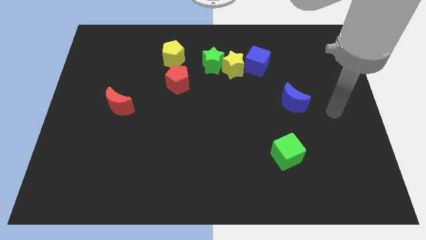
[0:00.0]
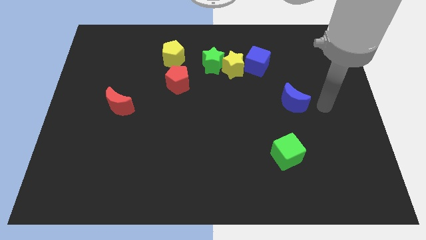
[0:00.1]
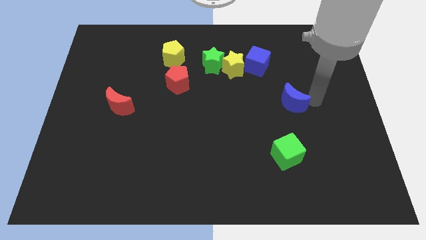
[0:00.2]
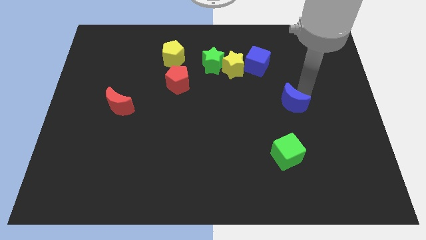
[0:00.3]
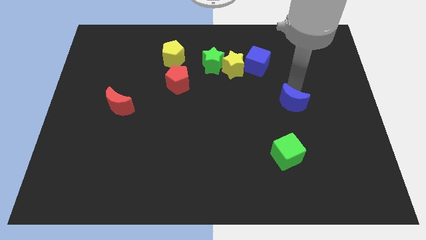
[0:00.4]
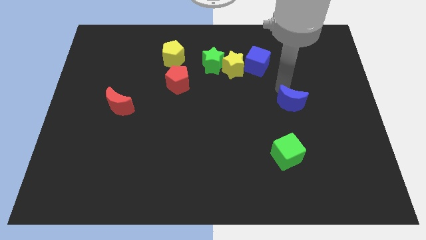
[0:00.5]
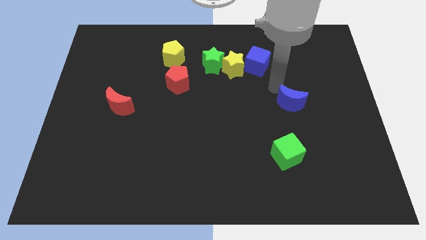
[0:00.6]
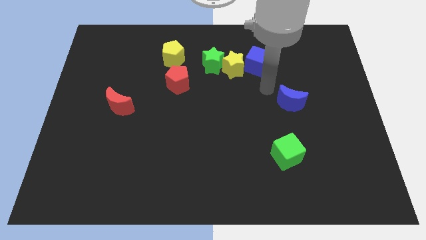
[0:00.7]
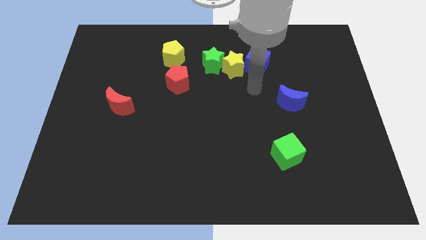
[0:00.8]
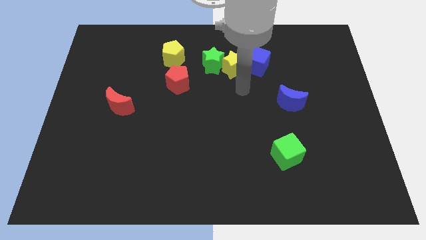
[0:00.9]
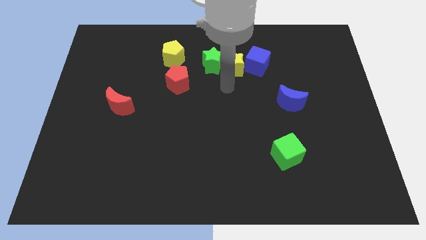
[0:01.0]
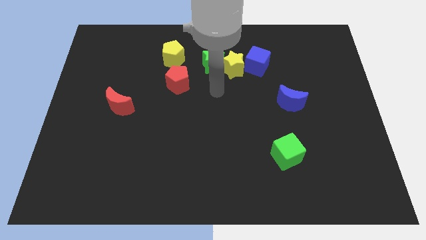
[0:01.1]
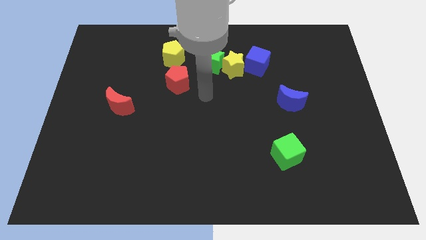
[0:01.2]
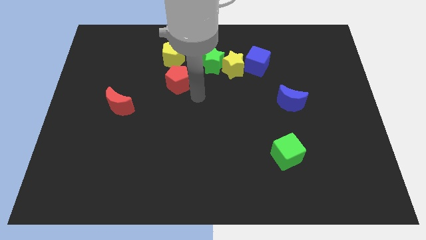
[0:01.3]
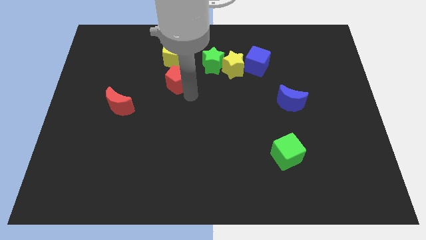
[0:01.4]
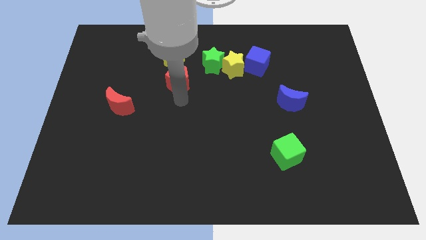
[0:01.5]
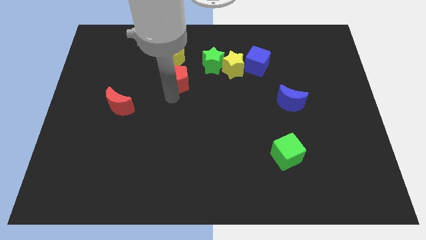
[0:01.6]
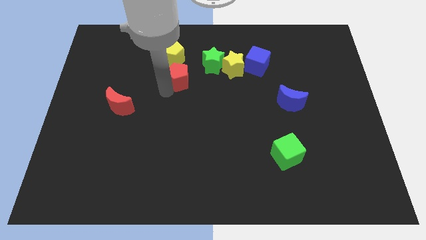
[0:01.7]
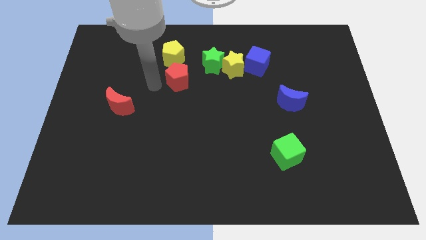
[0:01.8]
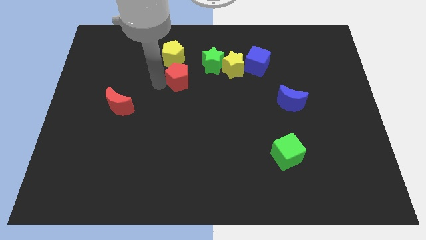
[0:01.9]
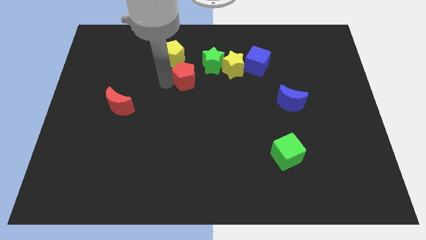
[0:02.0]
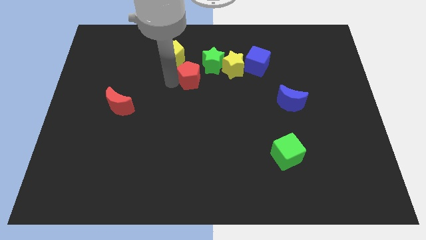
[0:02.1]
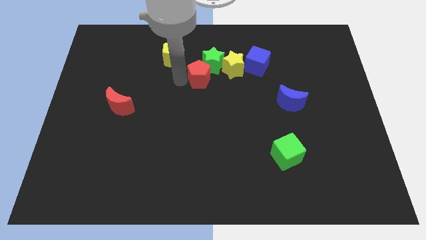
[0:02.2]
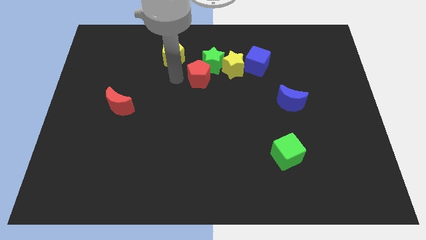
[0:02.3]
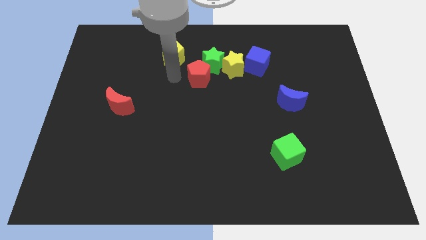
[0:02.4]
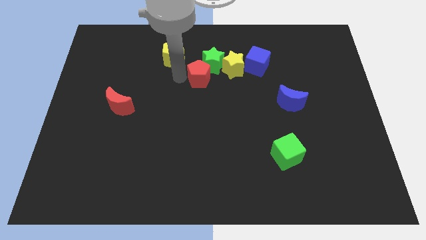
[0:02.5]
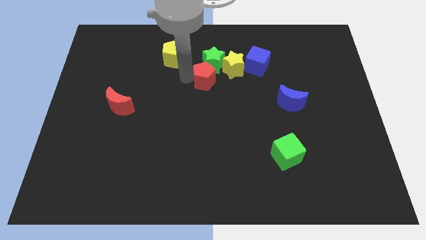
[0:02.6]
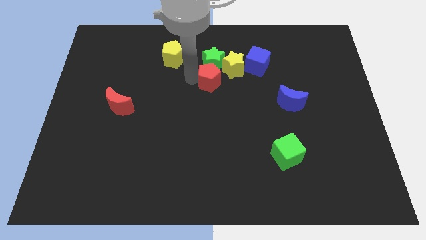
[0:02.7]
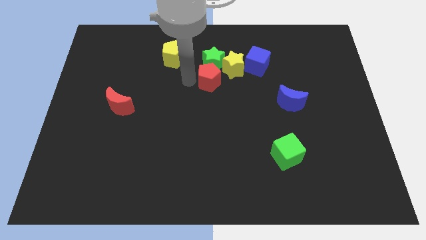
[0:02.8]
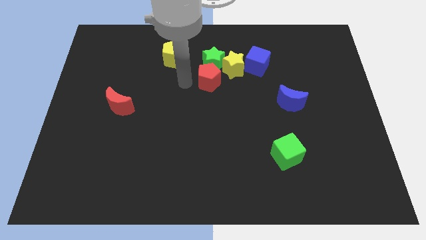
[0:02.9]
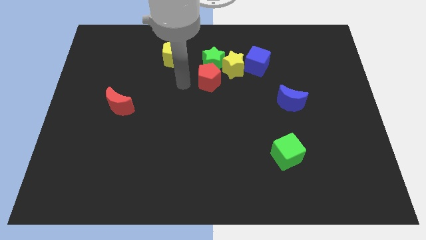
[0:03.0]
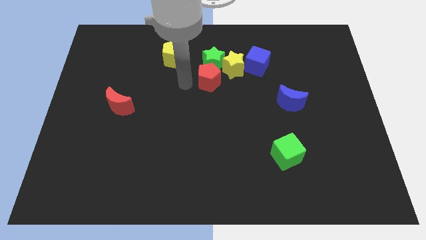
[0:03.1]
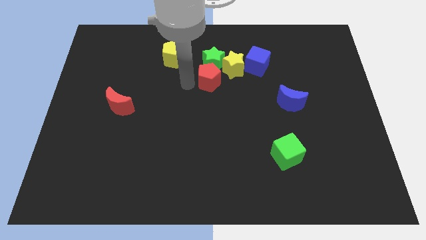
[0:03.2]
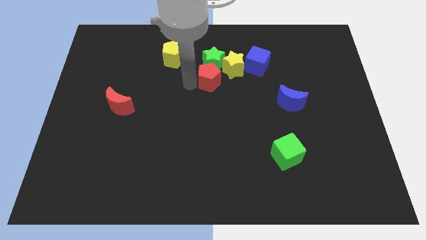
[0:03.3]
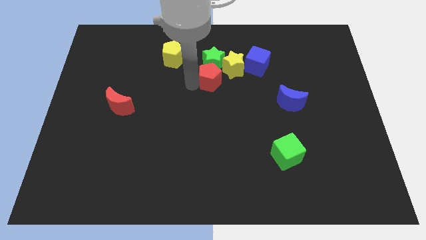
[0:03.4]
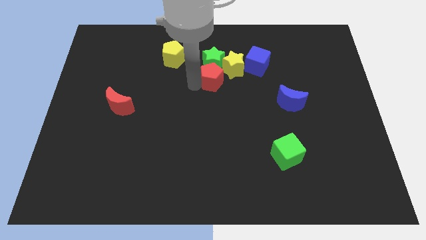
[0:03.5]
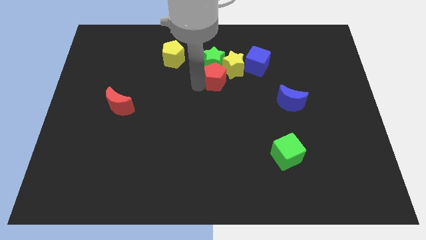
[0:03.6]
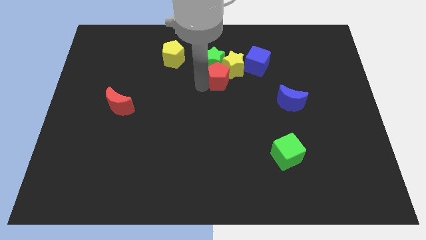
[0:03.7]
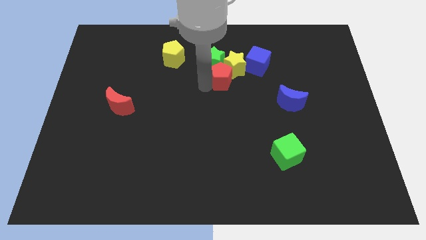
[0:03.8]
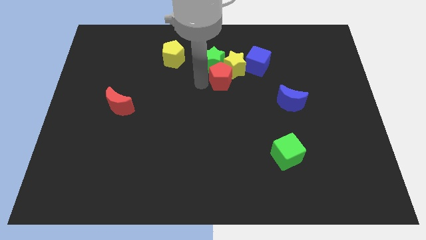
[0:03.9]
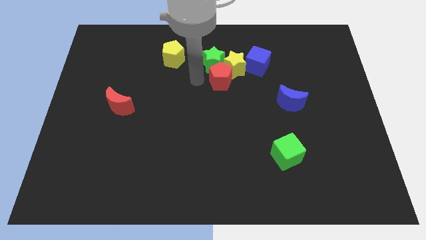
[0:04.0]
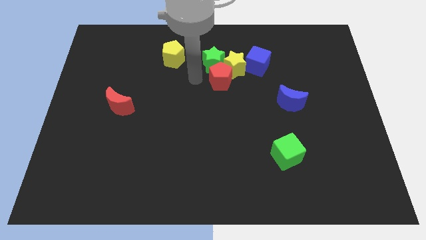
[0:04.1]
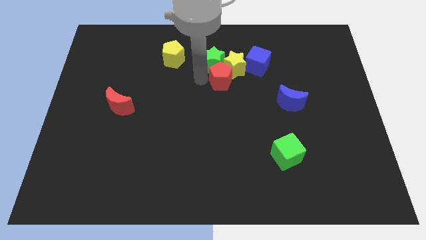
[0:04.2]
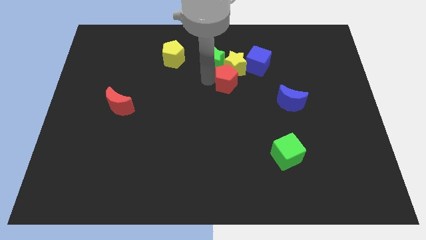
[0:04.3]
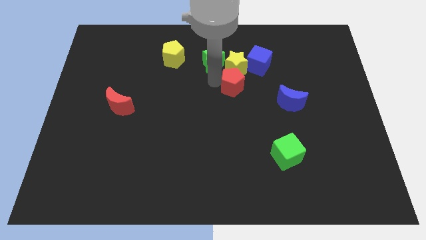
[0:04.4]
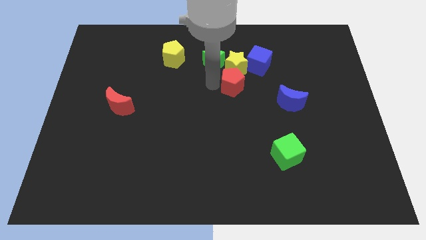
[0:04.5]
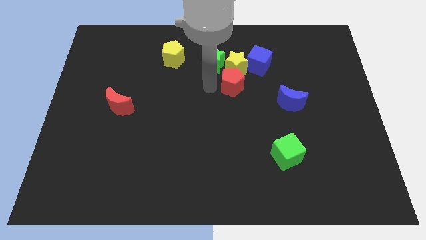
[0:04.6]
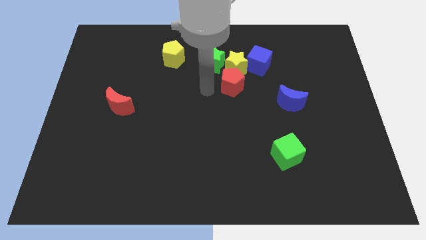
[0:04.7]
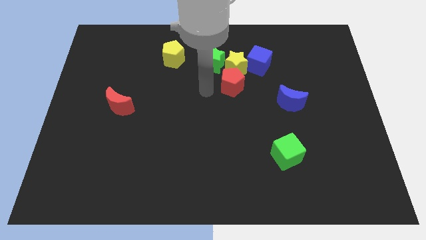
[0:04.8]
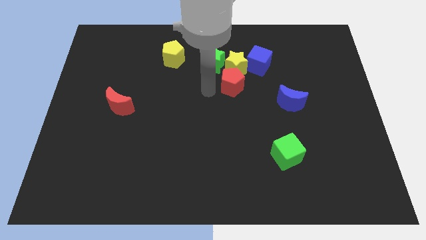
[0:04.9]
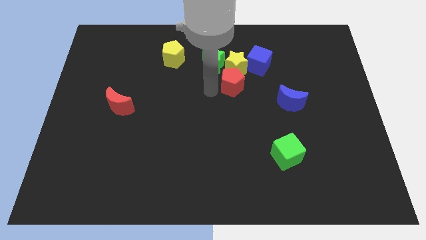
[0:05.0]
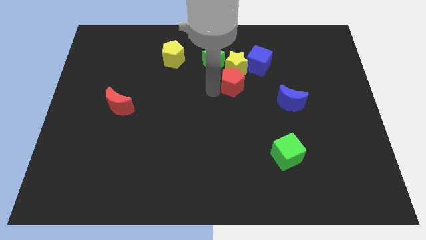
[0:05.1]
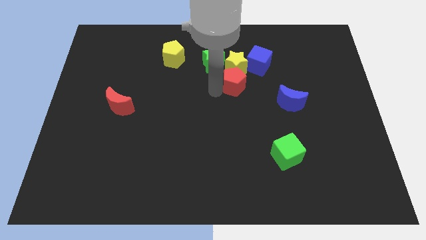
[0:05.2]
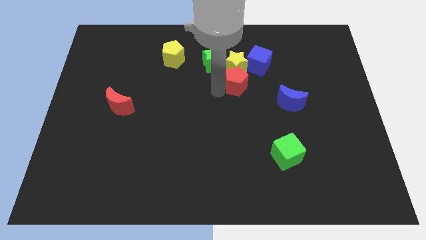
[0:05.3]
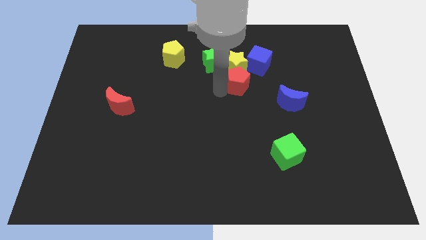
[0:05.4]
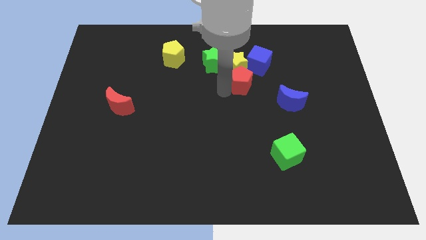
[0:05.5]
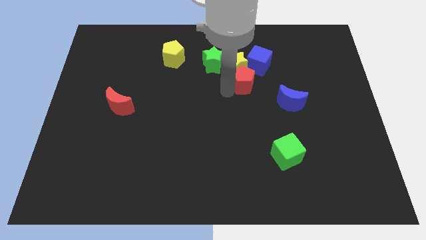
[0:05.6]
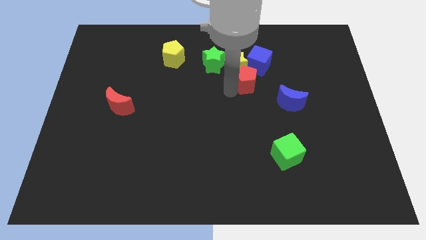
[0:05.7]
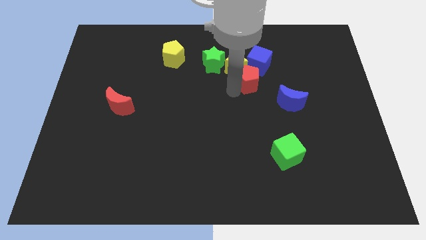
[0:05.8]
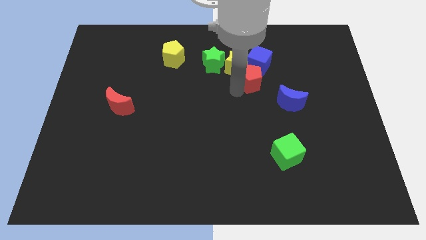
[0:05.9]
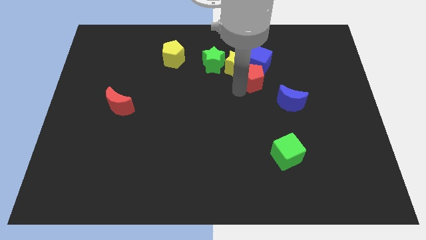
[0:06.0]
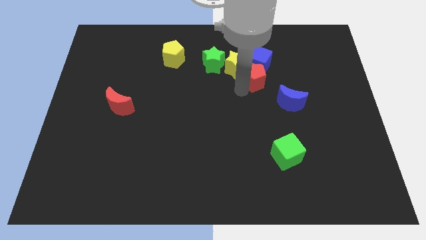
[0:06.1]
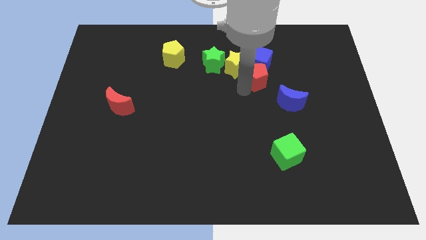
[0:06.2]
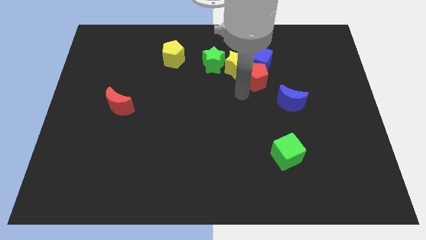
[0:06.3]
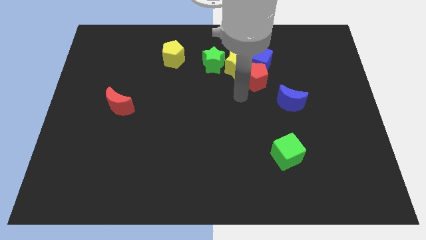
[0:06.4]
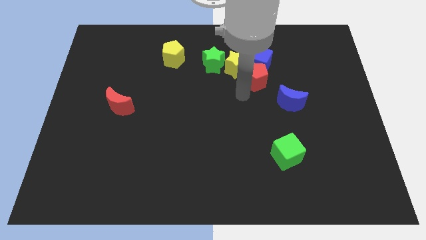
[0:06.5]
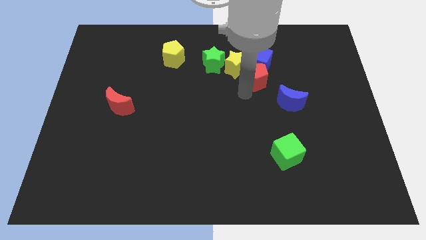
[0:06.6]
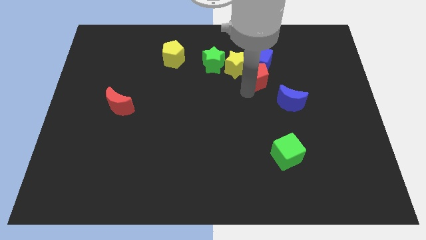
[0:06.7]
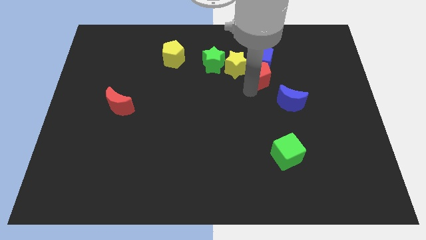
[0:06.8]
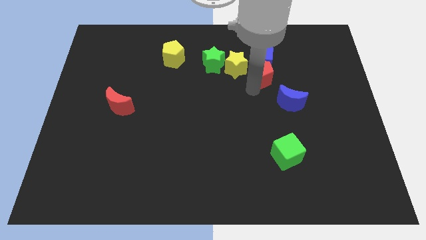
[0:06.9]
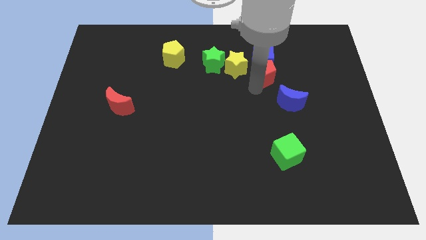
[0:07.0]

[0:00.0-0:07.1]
move the red pentagon to the right of the green star
